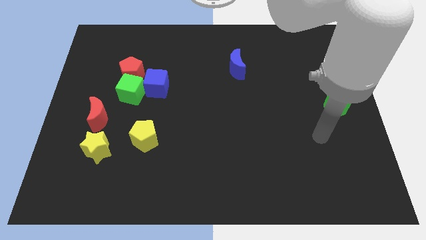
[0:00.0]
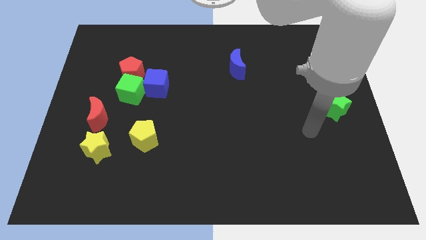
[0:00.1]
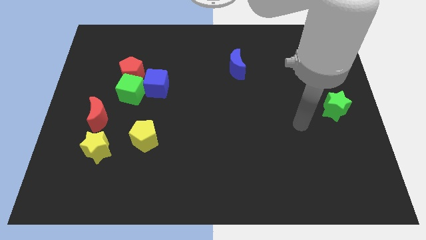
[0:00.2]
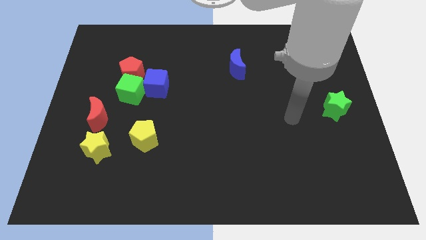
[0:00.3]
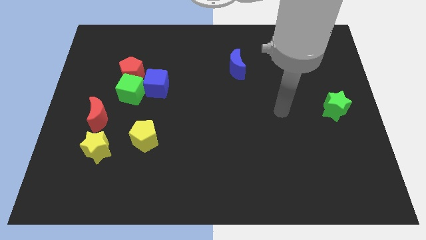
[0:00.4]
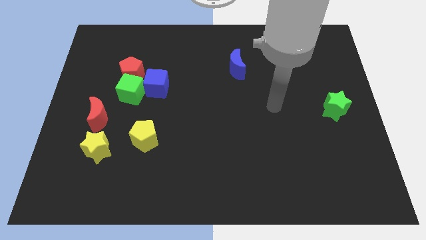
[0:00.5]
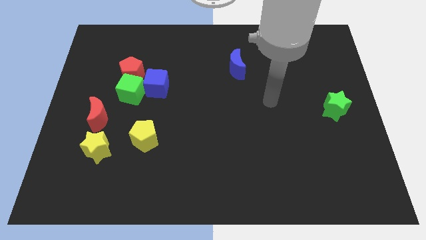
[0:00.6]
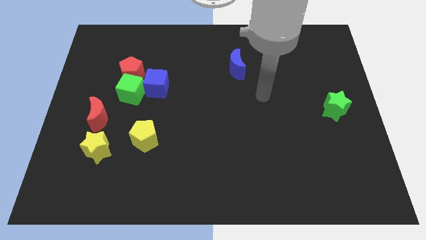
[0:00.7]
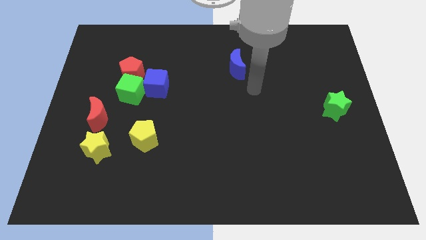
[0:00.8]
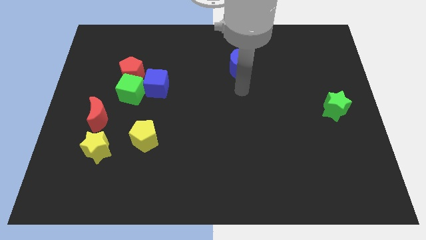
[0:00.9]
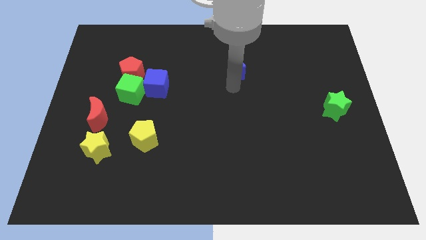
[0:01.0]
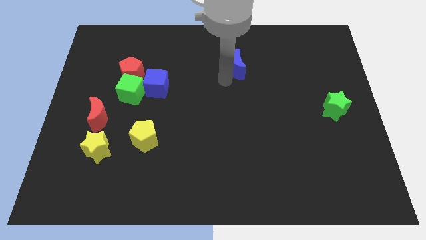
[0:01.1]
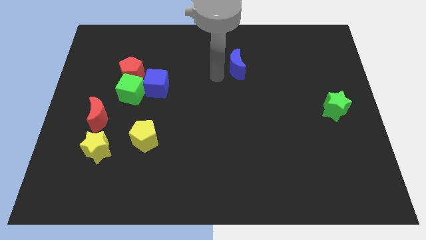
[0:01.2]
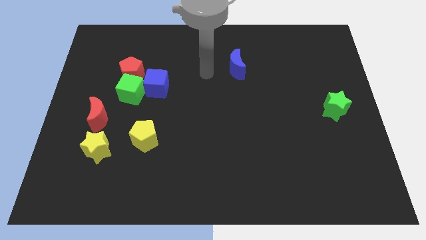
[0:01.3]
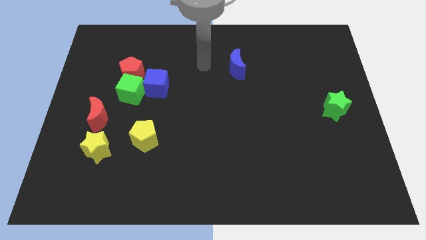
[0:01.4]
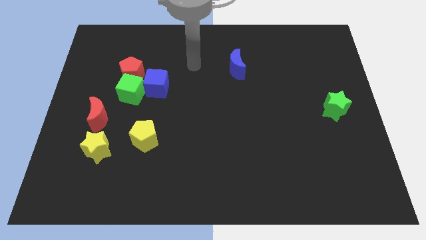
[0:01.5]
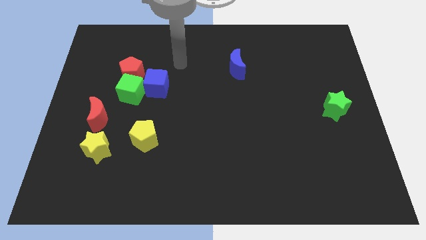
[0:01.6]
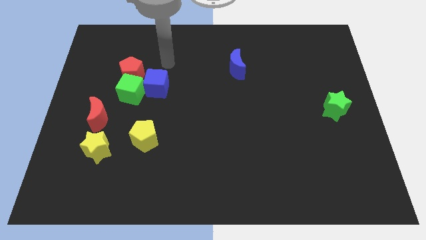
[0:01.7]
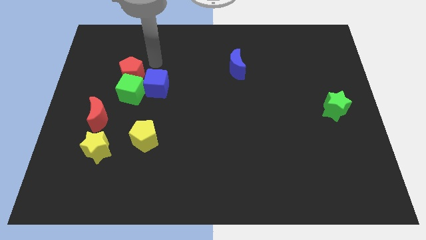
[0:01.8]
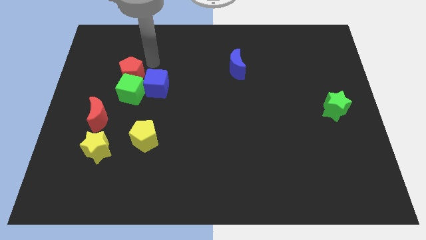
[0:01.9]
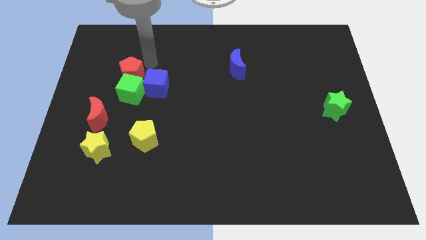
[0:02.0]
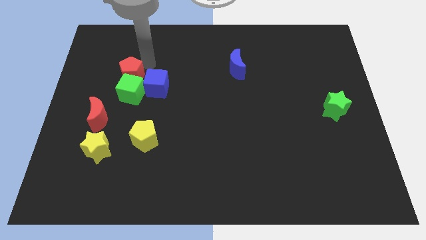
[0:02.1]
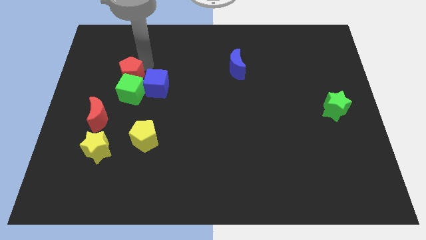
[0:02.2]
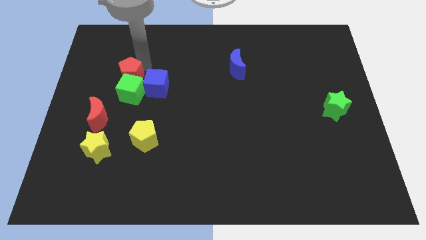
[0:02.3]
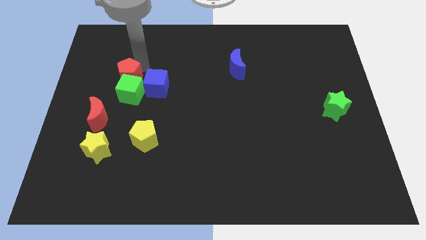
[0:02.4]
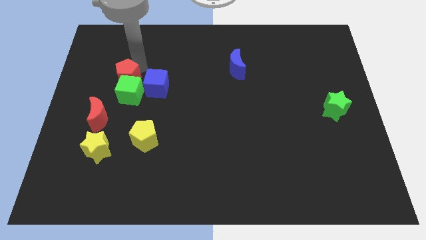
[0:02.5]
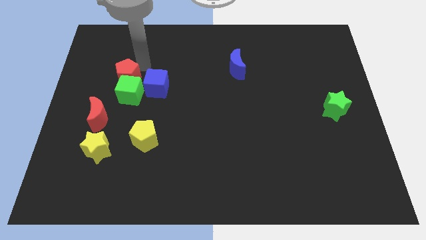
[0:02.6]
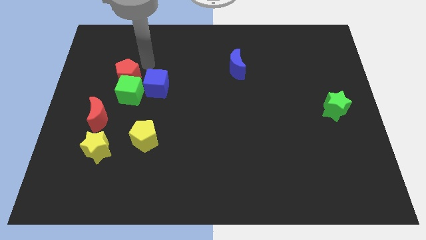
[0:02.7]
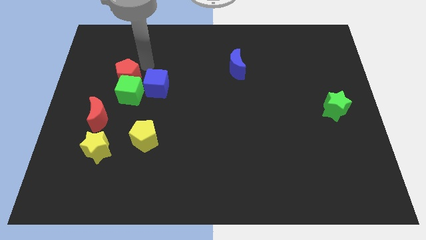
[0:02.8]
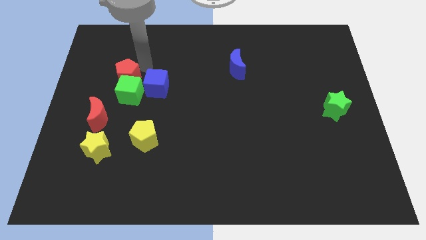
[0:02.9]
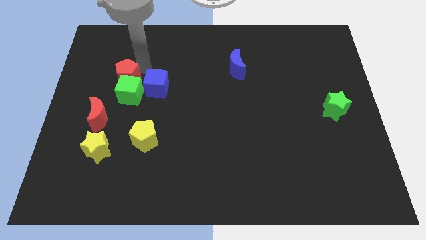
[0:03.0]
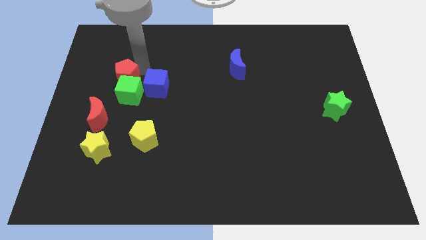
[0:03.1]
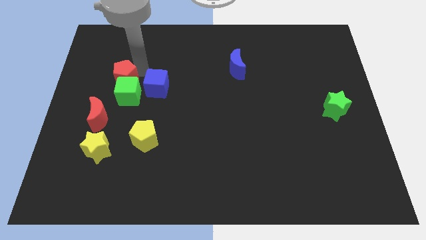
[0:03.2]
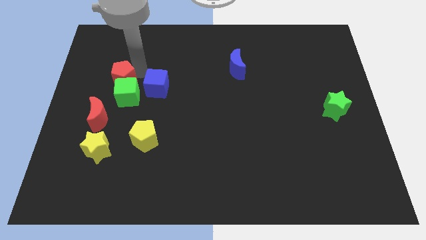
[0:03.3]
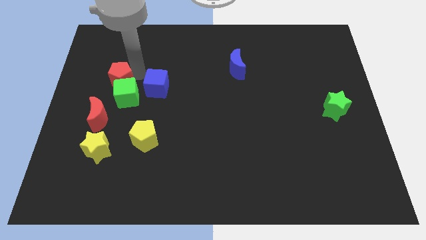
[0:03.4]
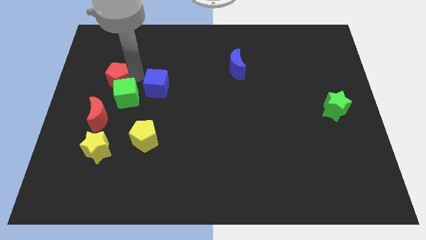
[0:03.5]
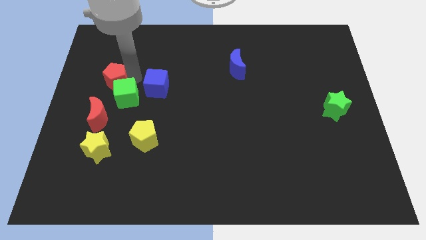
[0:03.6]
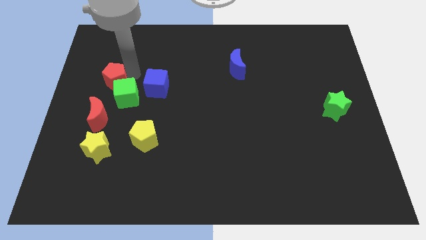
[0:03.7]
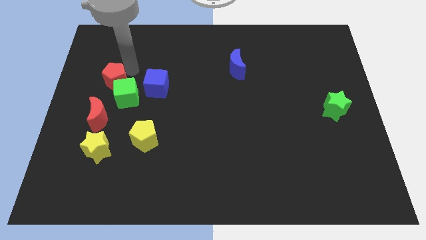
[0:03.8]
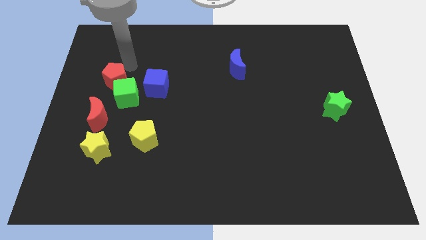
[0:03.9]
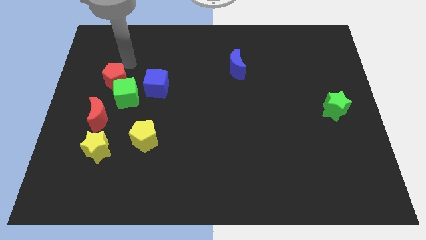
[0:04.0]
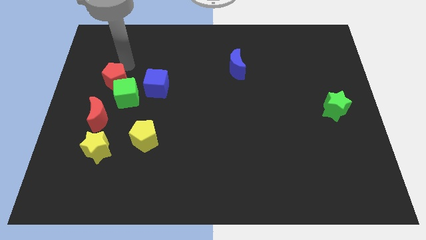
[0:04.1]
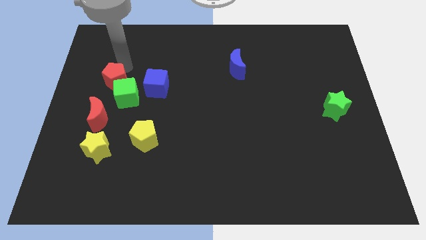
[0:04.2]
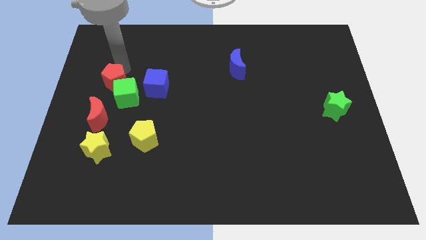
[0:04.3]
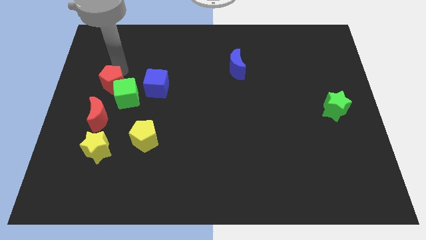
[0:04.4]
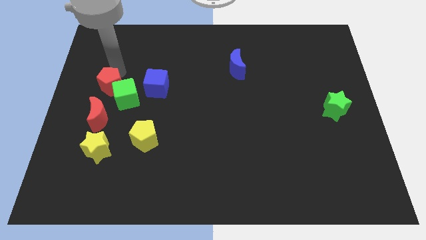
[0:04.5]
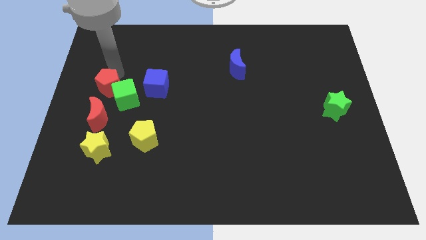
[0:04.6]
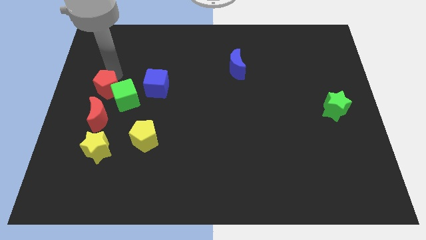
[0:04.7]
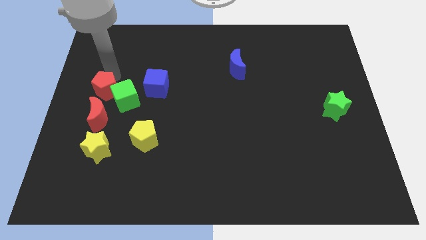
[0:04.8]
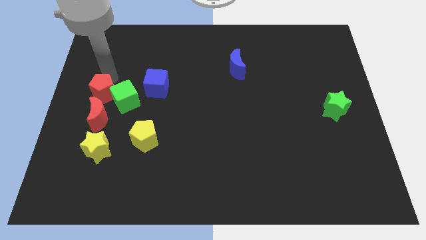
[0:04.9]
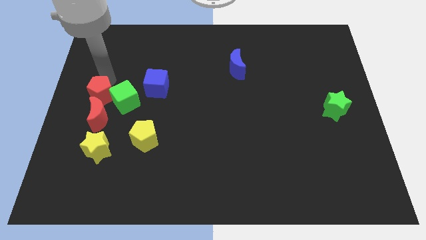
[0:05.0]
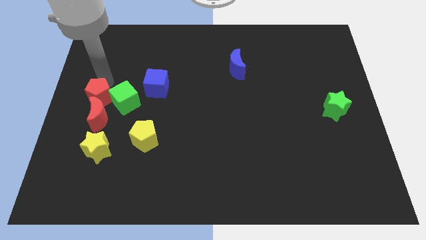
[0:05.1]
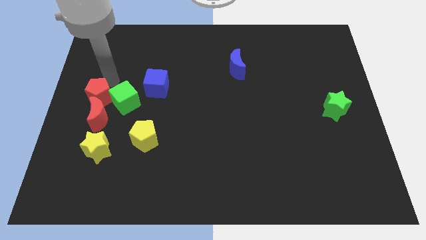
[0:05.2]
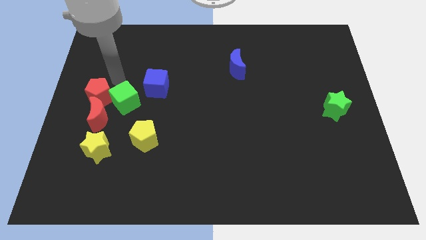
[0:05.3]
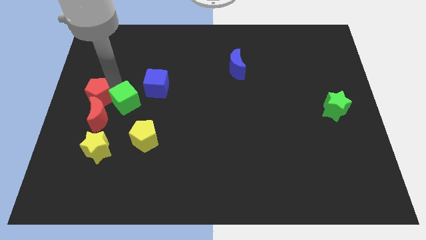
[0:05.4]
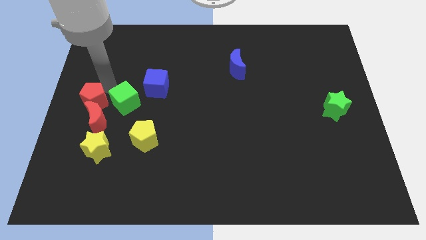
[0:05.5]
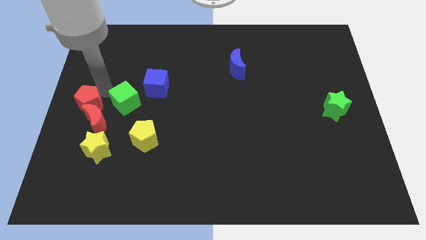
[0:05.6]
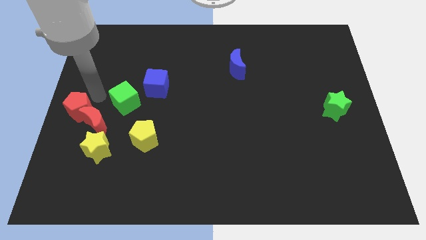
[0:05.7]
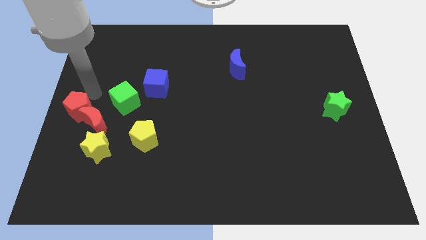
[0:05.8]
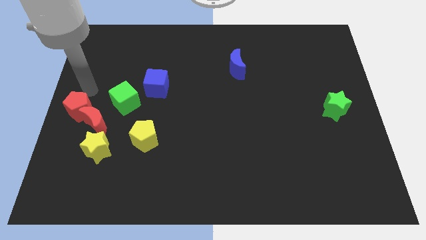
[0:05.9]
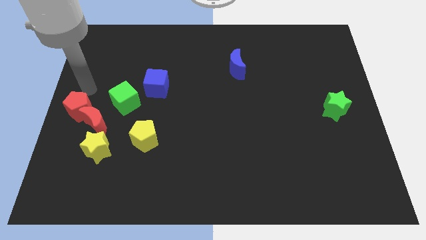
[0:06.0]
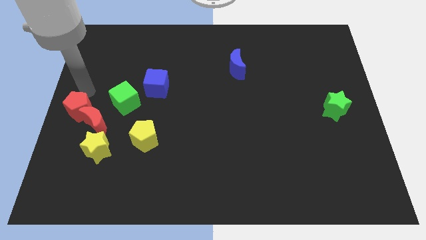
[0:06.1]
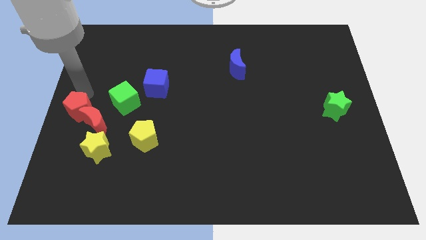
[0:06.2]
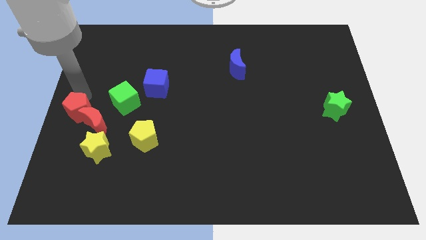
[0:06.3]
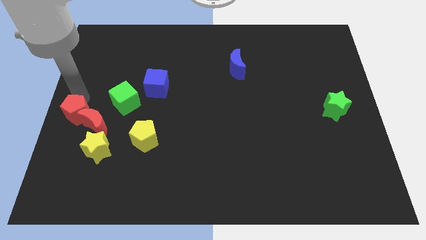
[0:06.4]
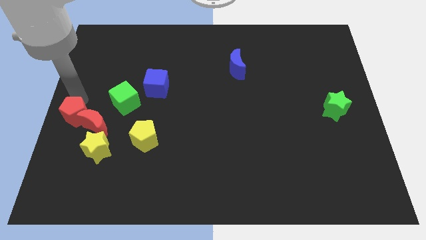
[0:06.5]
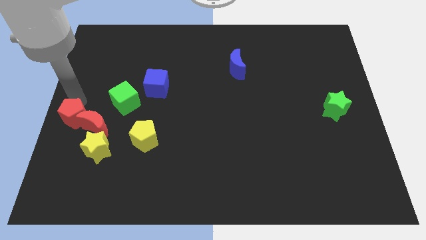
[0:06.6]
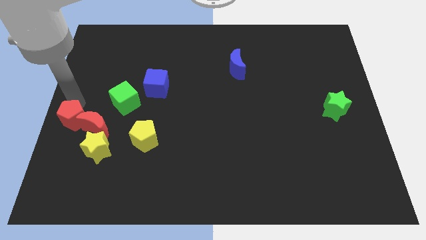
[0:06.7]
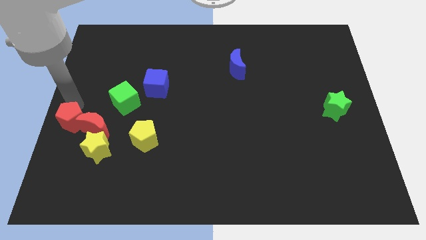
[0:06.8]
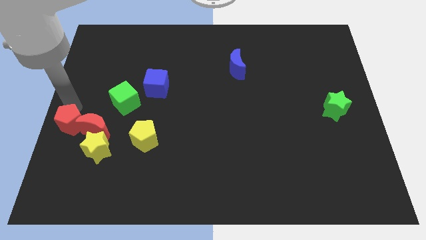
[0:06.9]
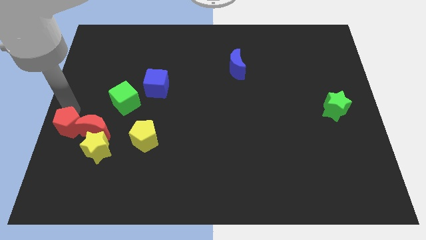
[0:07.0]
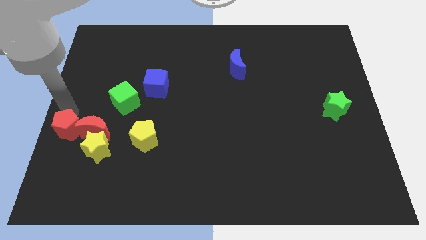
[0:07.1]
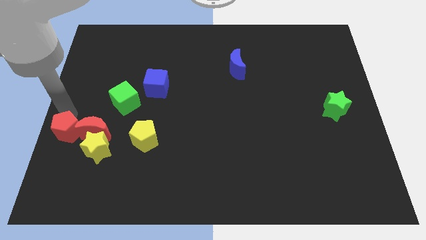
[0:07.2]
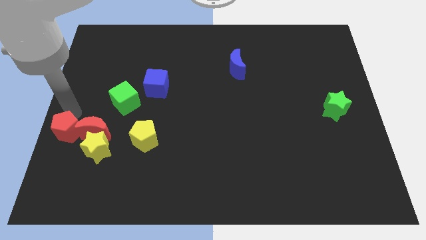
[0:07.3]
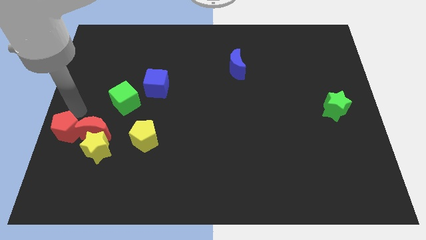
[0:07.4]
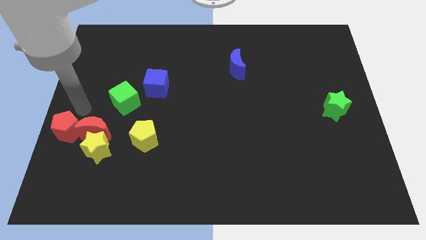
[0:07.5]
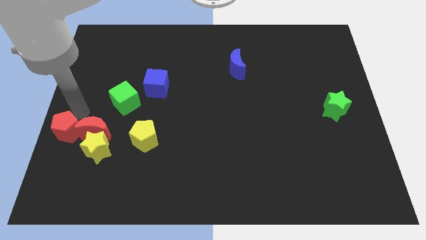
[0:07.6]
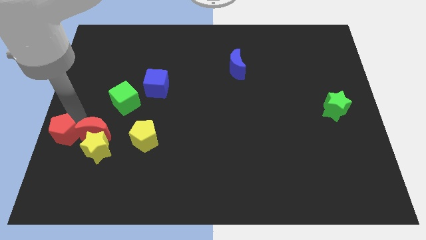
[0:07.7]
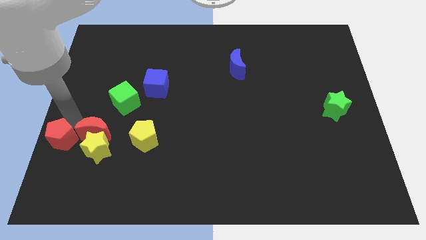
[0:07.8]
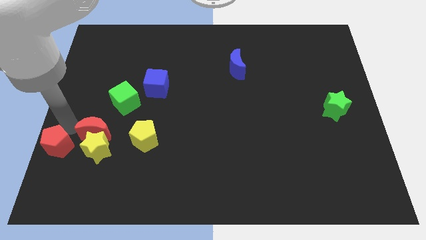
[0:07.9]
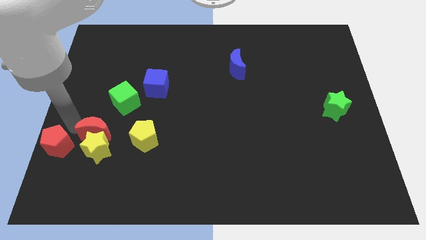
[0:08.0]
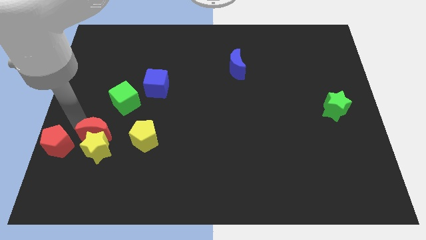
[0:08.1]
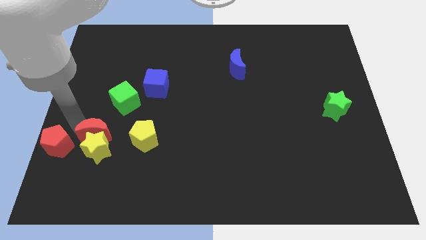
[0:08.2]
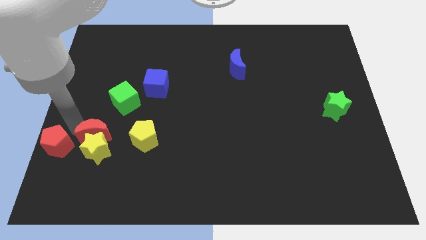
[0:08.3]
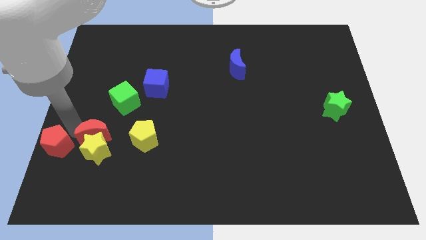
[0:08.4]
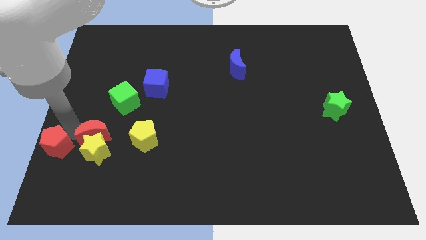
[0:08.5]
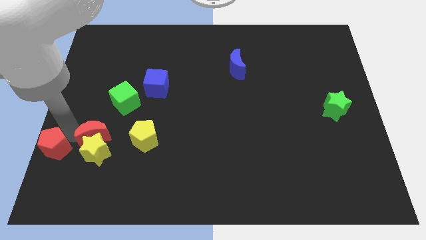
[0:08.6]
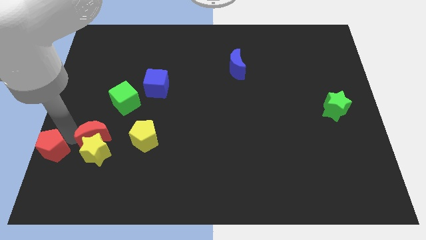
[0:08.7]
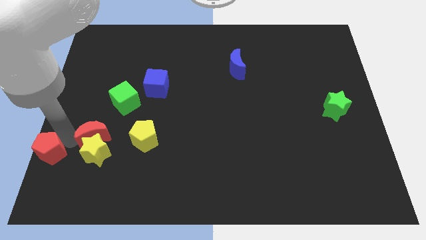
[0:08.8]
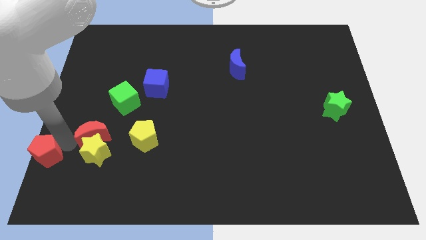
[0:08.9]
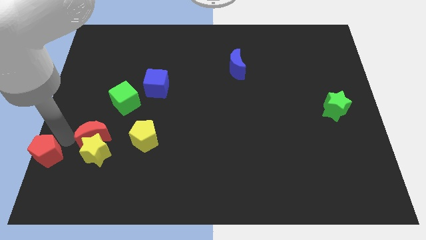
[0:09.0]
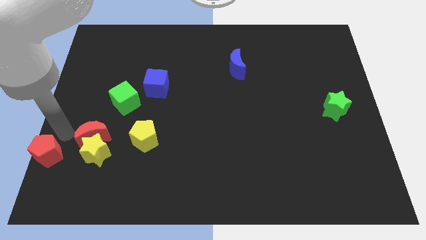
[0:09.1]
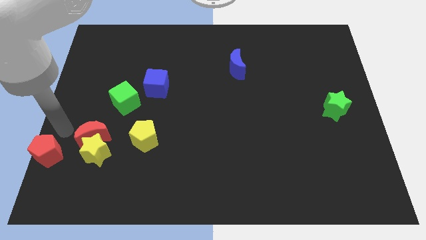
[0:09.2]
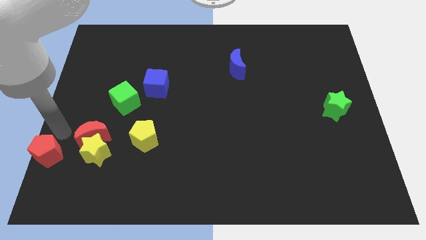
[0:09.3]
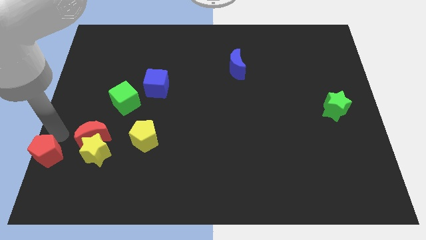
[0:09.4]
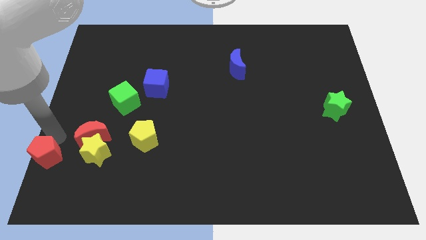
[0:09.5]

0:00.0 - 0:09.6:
move the red pentagon to the bottom left
